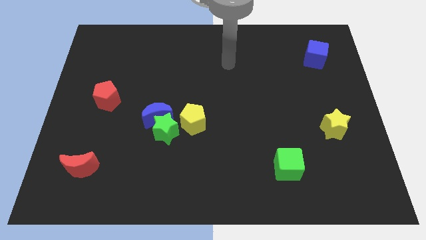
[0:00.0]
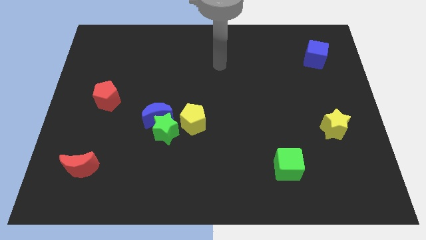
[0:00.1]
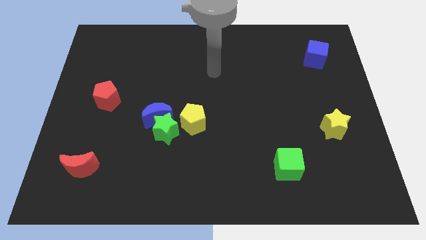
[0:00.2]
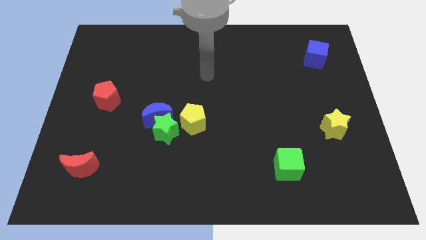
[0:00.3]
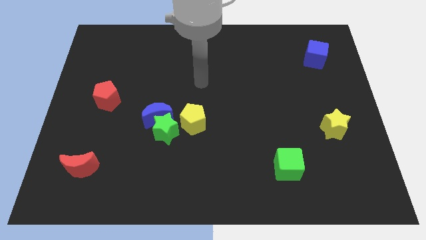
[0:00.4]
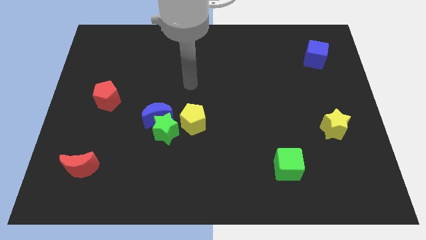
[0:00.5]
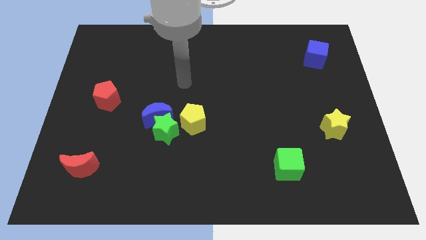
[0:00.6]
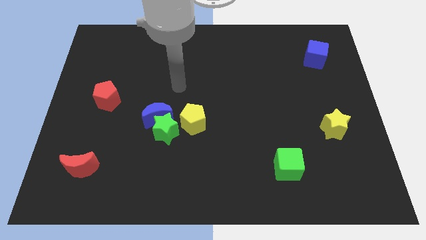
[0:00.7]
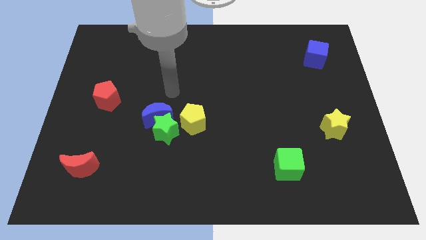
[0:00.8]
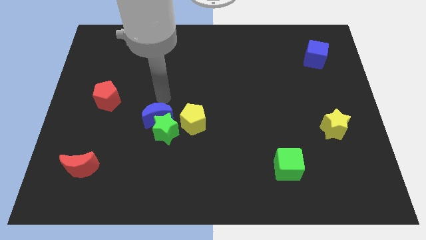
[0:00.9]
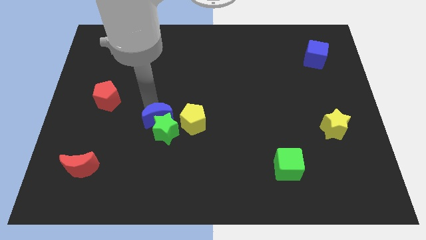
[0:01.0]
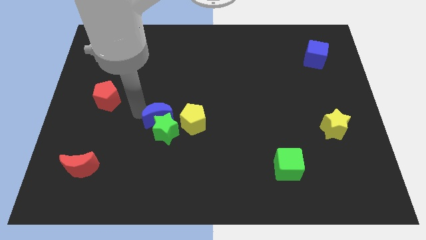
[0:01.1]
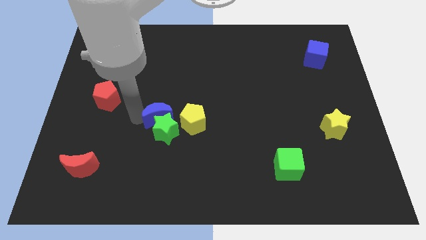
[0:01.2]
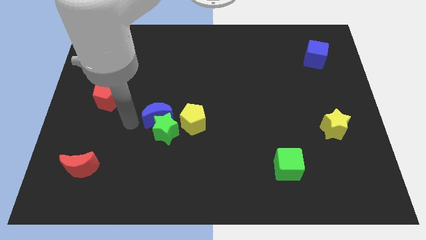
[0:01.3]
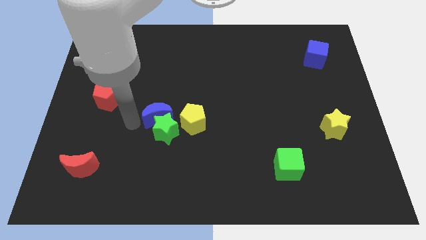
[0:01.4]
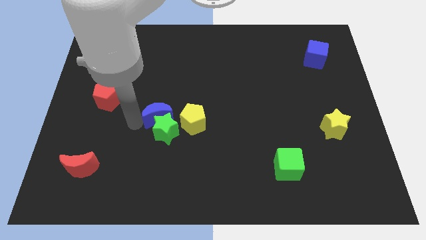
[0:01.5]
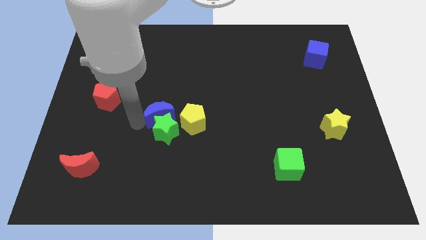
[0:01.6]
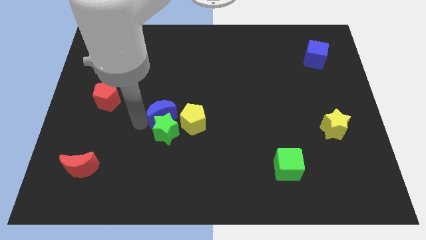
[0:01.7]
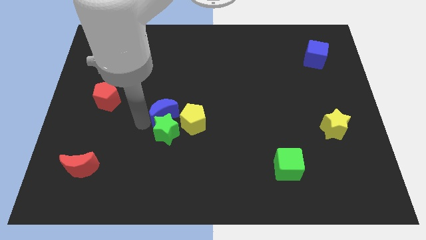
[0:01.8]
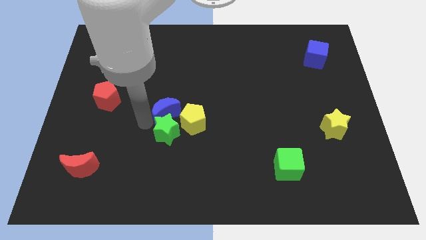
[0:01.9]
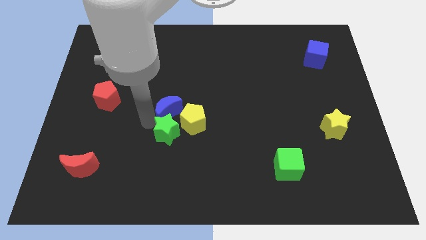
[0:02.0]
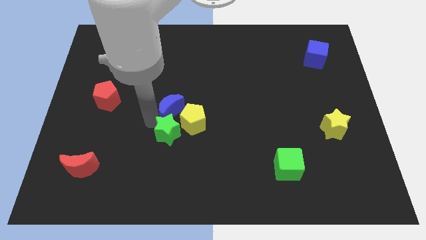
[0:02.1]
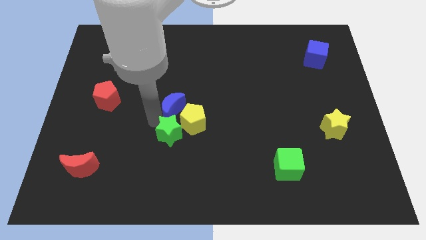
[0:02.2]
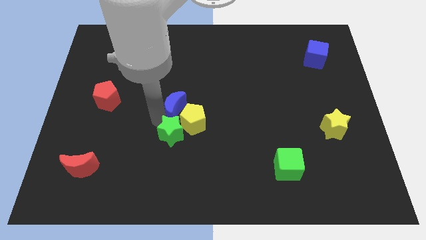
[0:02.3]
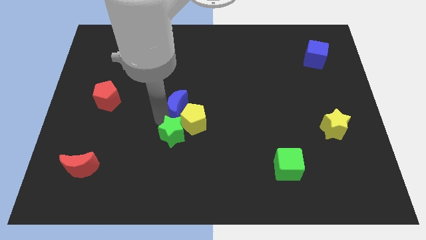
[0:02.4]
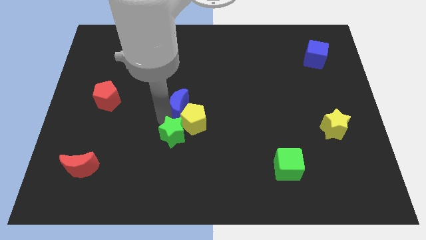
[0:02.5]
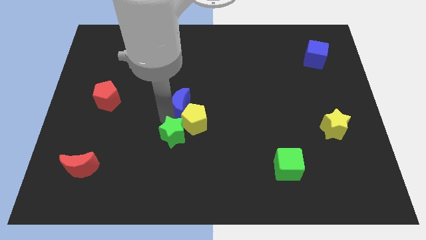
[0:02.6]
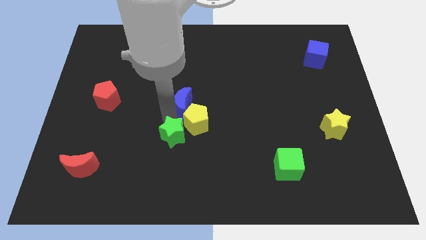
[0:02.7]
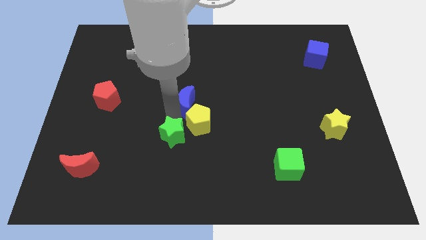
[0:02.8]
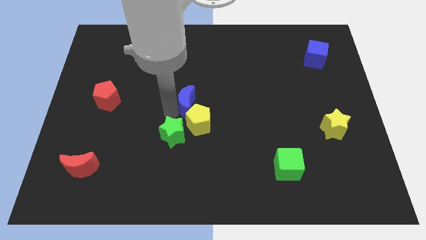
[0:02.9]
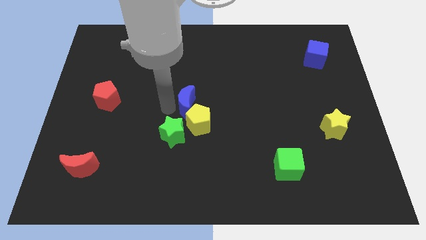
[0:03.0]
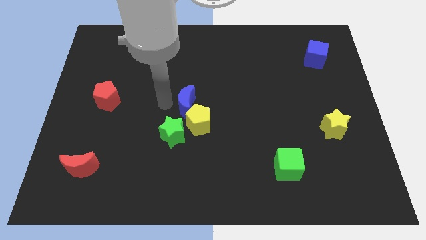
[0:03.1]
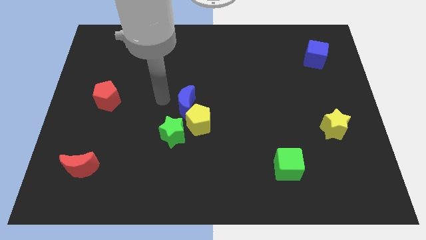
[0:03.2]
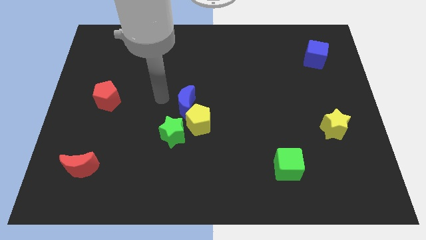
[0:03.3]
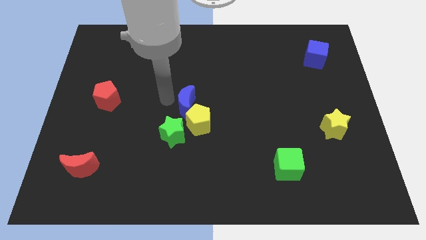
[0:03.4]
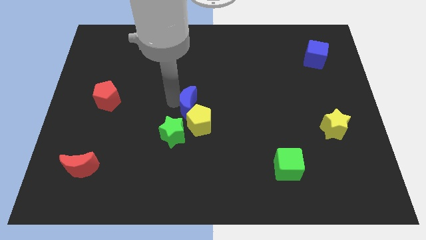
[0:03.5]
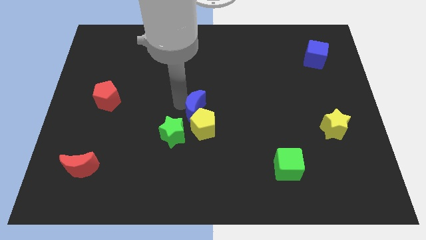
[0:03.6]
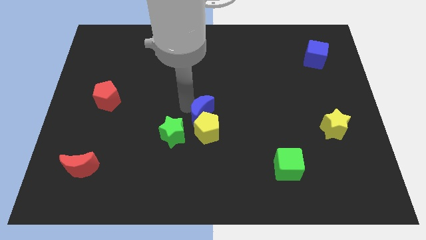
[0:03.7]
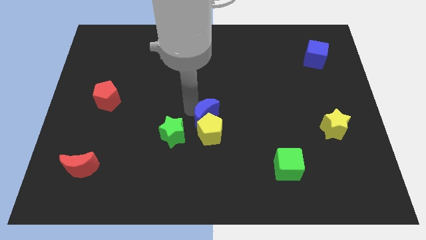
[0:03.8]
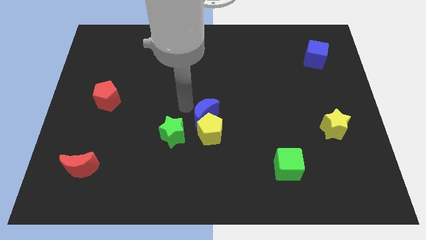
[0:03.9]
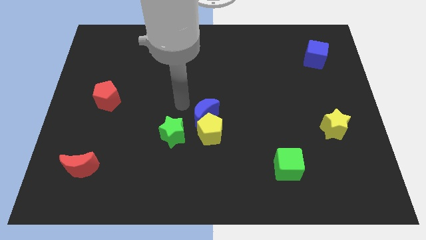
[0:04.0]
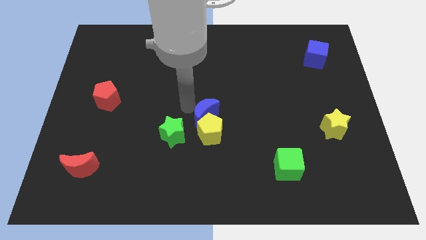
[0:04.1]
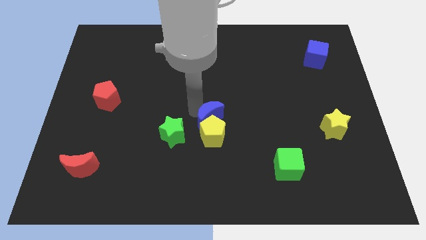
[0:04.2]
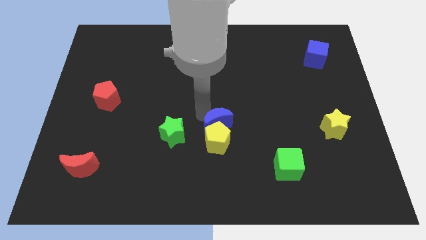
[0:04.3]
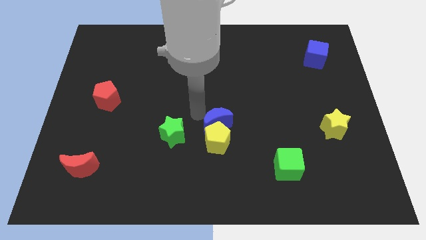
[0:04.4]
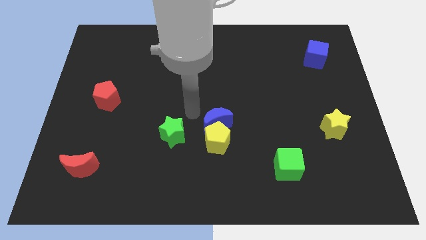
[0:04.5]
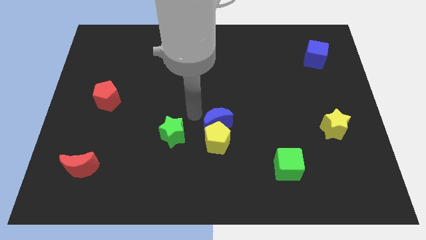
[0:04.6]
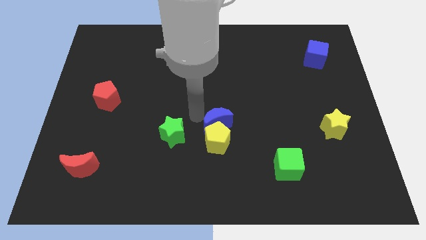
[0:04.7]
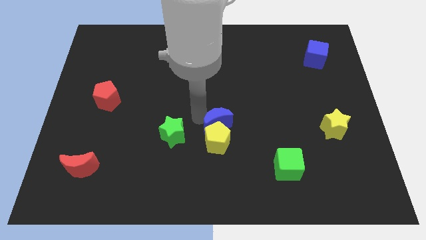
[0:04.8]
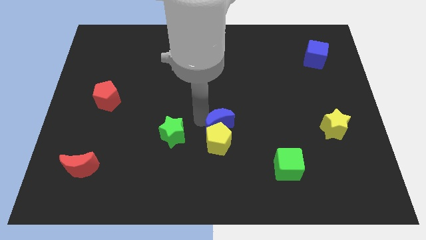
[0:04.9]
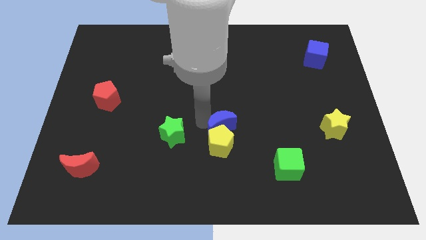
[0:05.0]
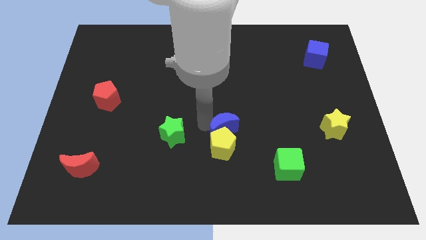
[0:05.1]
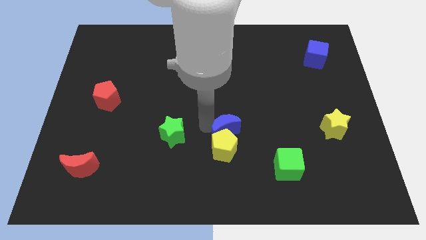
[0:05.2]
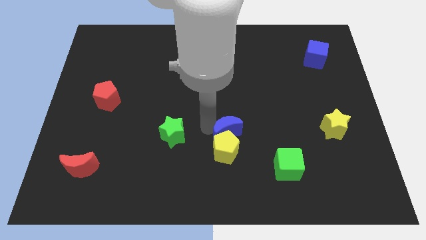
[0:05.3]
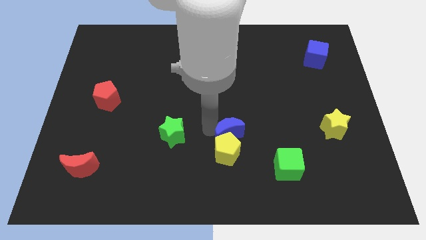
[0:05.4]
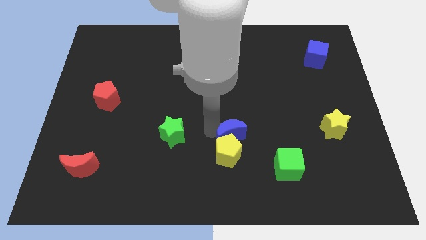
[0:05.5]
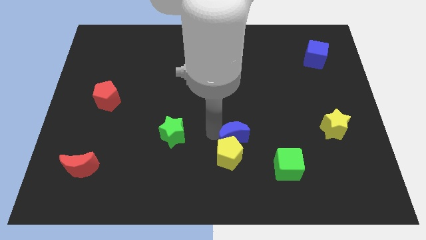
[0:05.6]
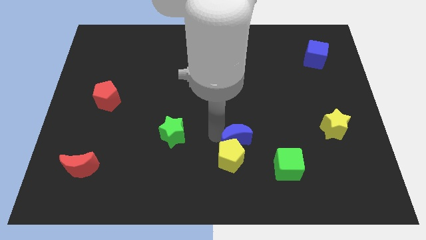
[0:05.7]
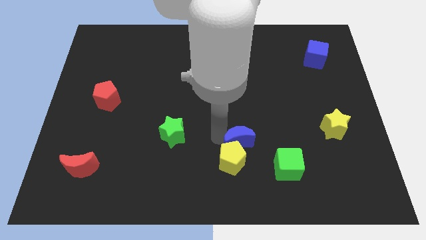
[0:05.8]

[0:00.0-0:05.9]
push the blue moon diagonally up and to the left of the green cube

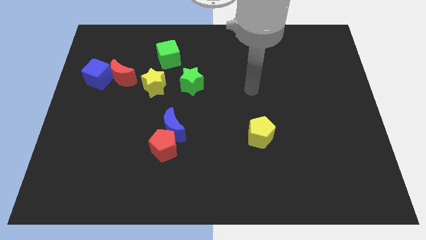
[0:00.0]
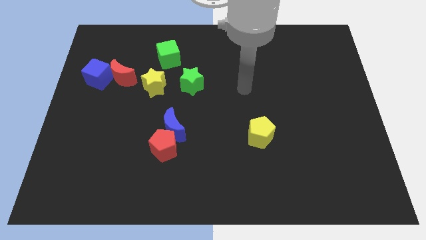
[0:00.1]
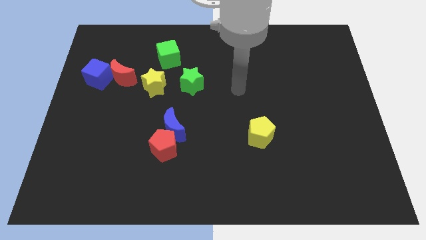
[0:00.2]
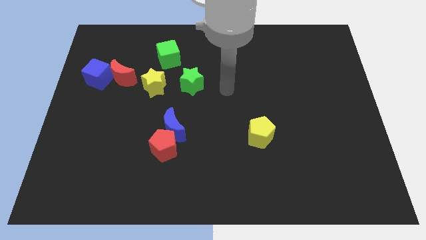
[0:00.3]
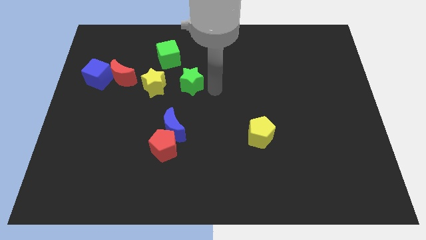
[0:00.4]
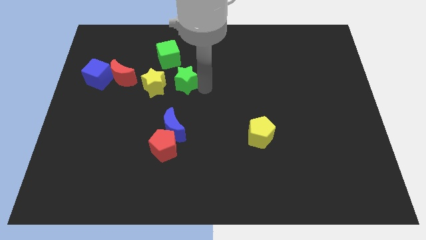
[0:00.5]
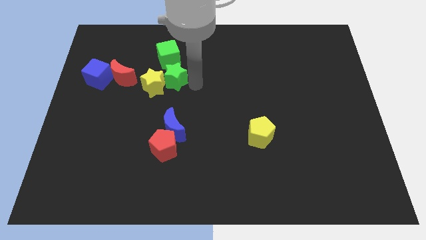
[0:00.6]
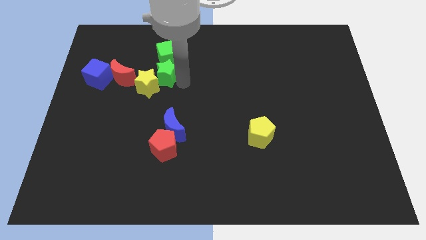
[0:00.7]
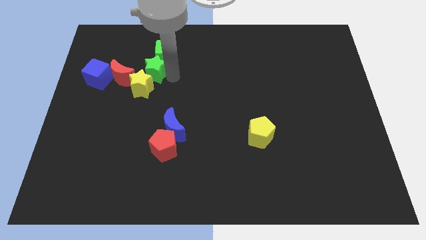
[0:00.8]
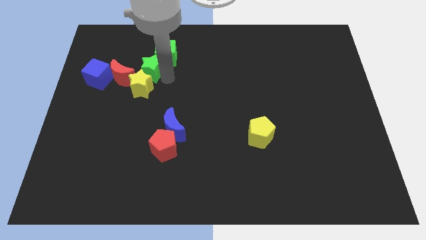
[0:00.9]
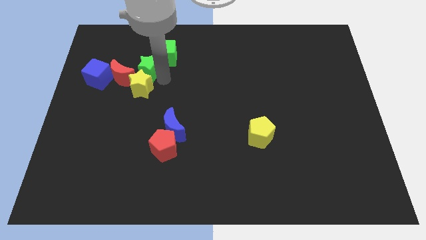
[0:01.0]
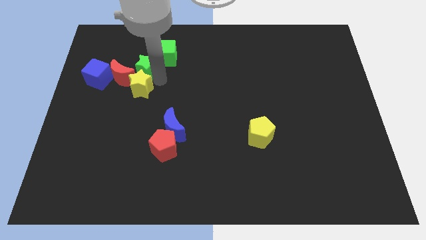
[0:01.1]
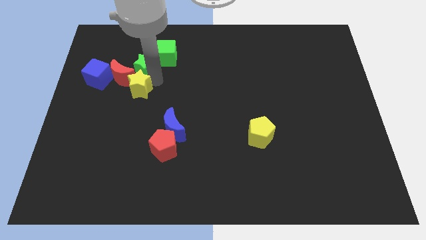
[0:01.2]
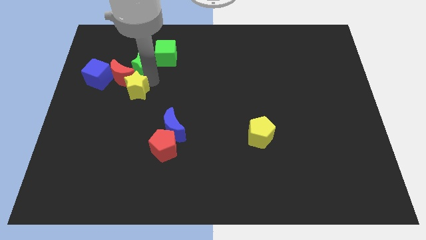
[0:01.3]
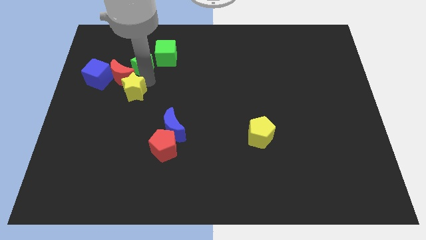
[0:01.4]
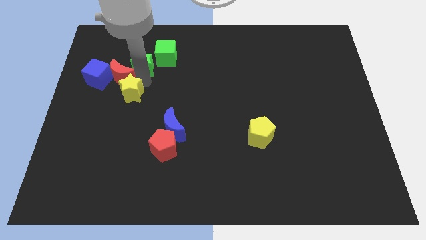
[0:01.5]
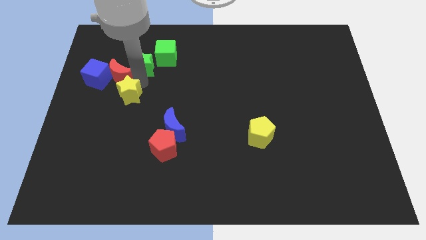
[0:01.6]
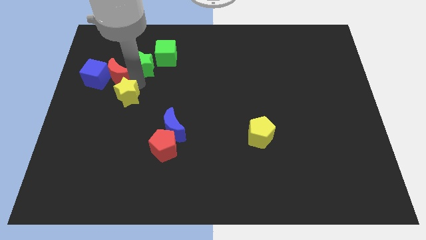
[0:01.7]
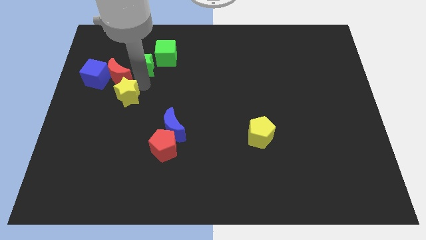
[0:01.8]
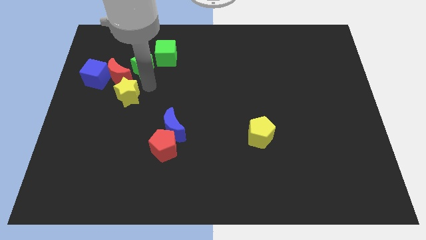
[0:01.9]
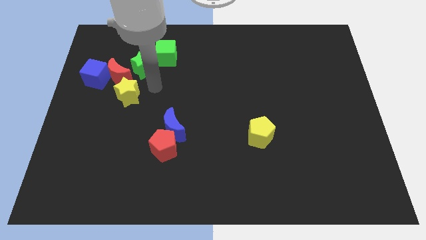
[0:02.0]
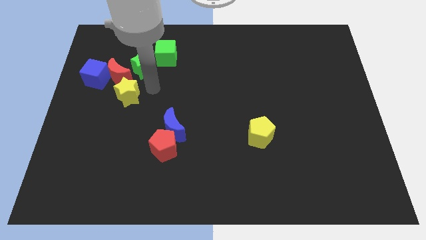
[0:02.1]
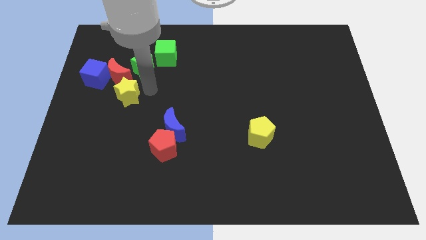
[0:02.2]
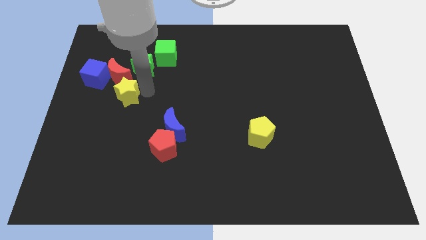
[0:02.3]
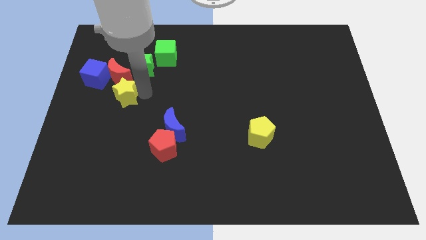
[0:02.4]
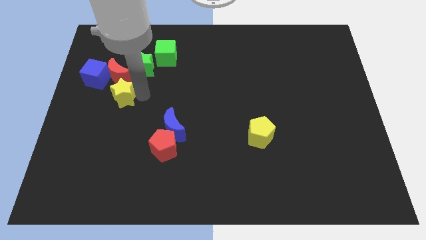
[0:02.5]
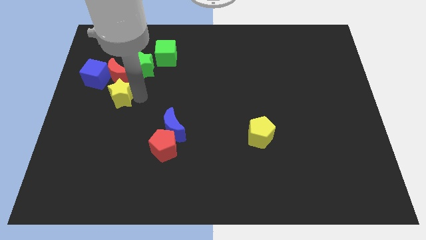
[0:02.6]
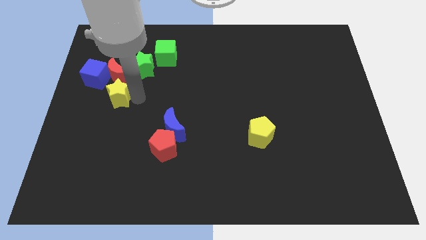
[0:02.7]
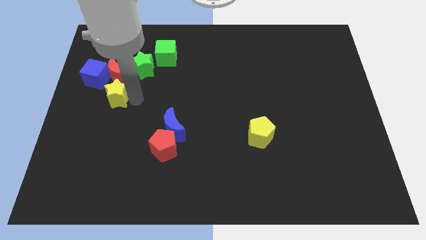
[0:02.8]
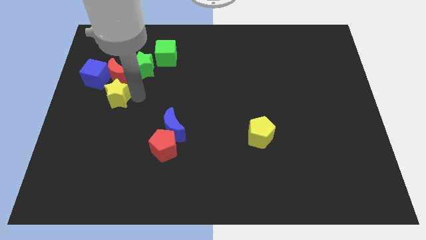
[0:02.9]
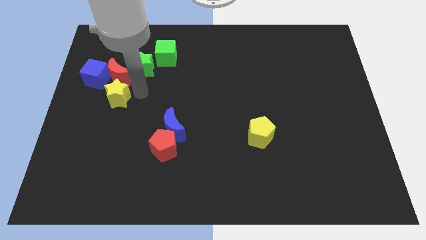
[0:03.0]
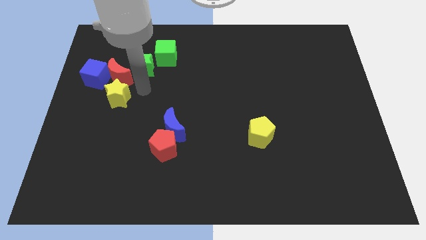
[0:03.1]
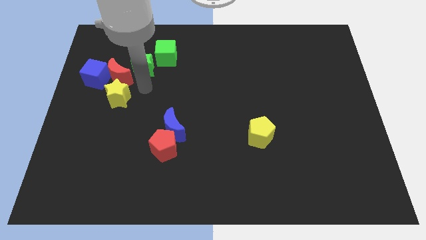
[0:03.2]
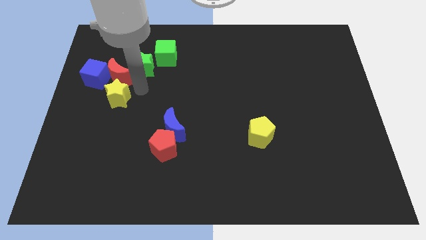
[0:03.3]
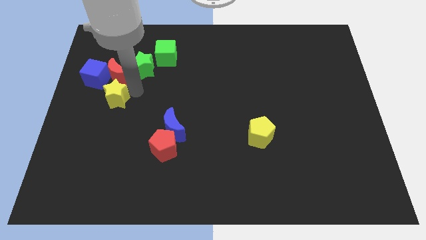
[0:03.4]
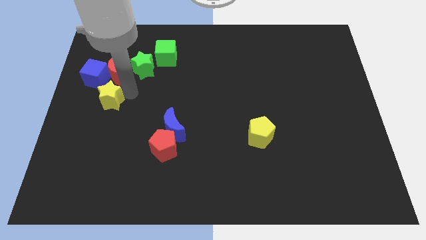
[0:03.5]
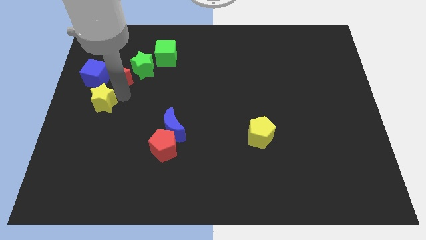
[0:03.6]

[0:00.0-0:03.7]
move the yellow star to the bottom of the blue cube
